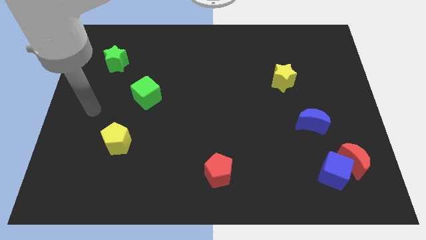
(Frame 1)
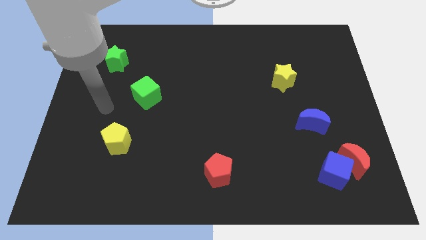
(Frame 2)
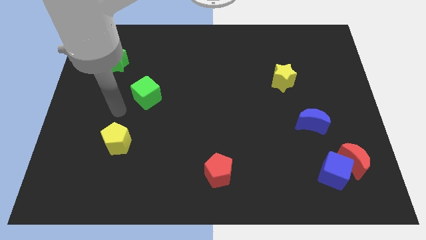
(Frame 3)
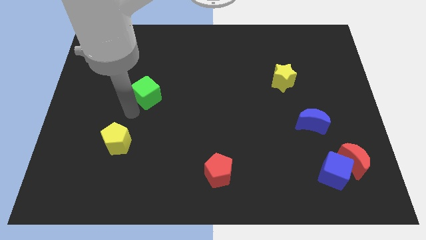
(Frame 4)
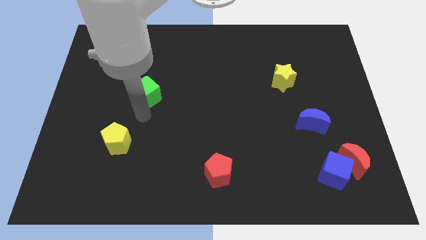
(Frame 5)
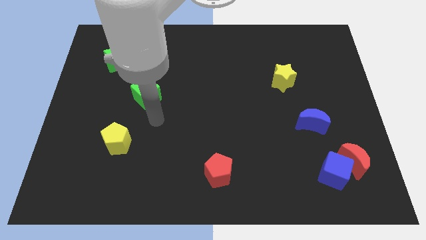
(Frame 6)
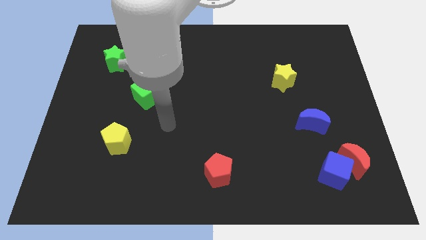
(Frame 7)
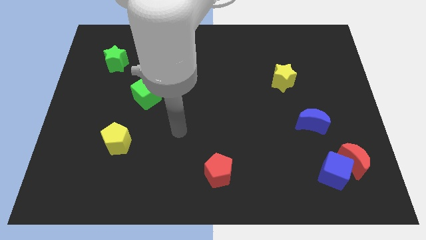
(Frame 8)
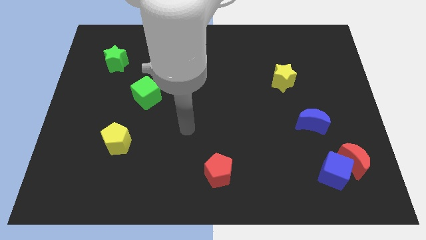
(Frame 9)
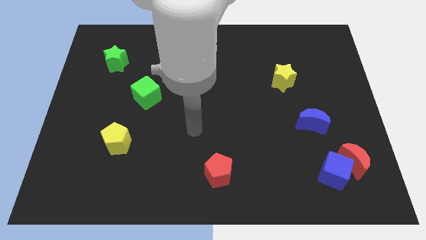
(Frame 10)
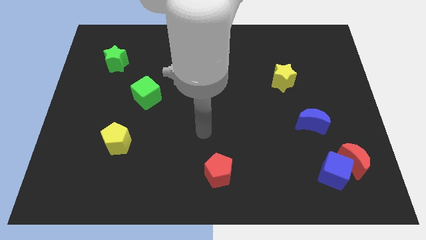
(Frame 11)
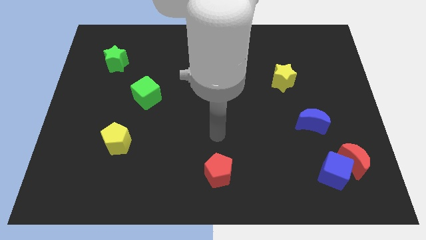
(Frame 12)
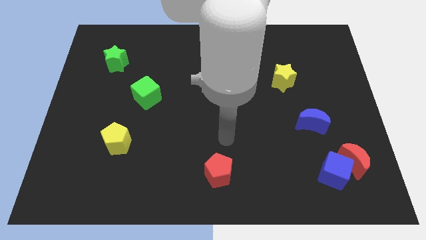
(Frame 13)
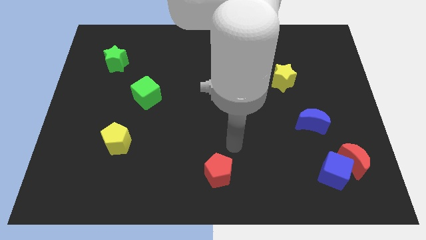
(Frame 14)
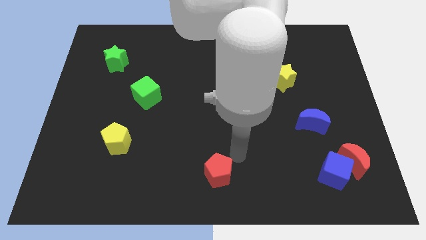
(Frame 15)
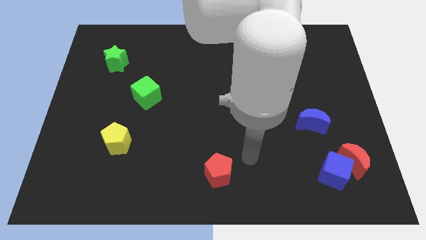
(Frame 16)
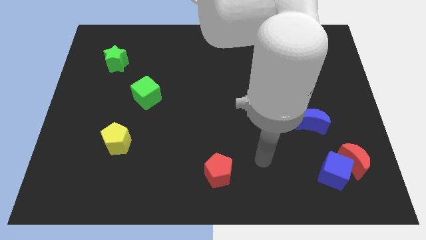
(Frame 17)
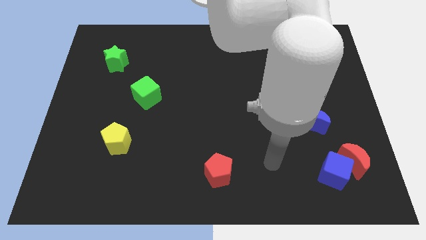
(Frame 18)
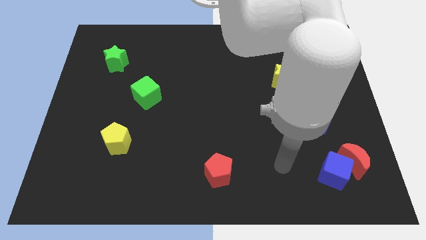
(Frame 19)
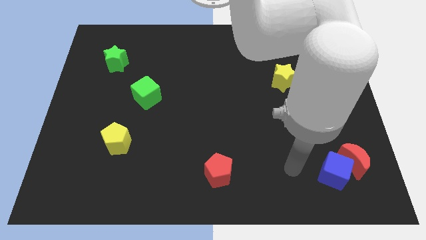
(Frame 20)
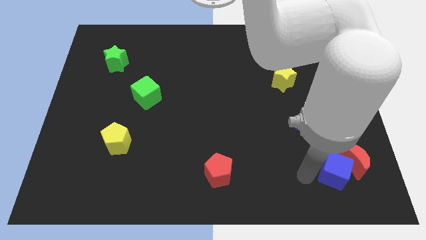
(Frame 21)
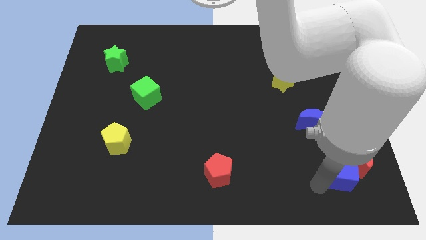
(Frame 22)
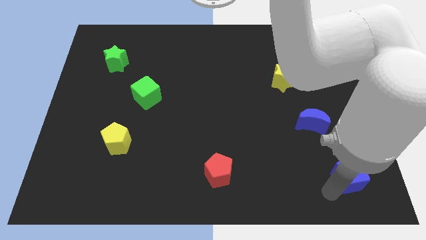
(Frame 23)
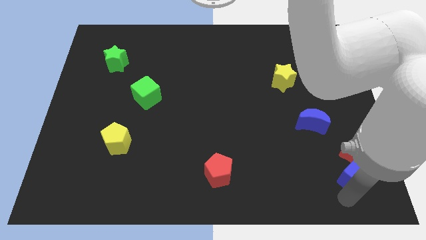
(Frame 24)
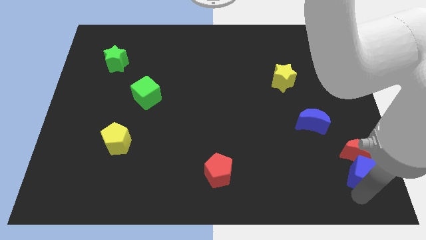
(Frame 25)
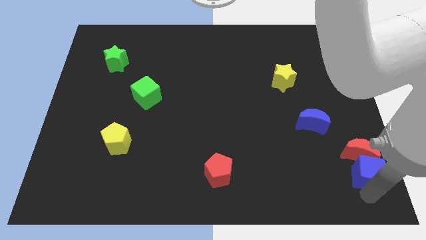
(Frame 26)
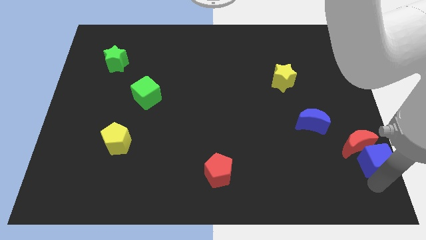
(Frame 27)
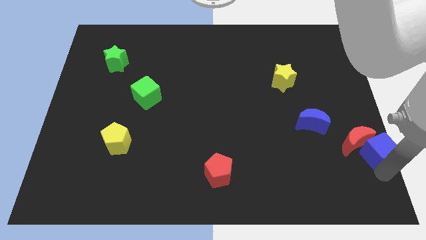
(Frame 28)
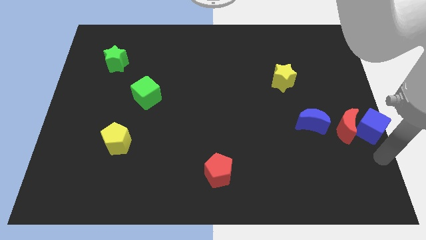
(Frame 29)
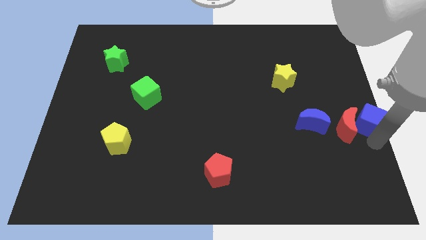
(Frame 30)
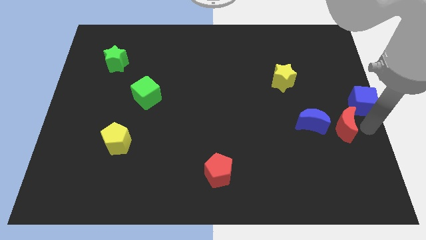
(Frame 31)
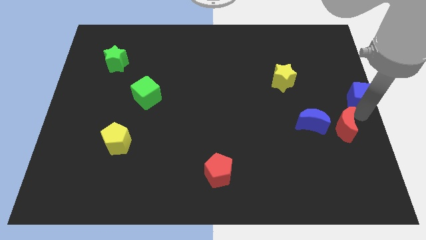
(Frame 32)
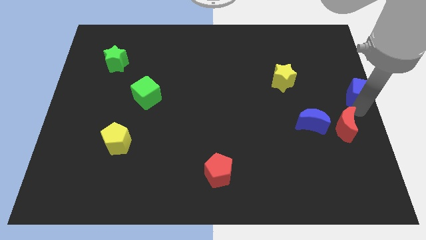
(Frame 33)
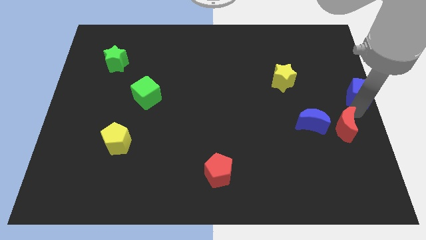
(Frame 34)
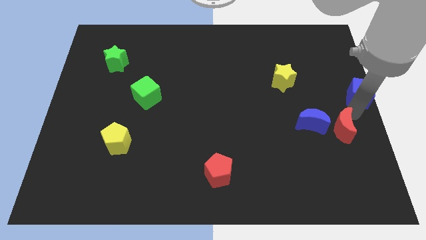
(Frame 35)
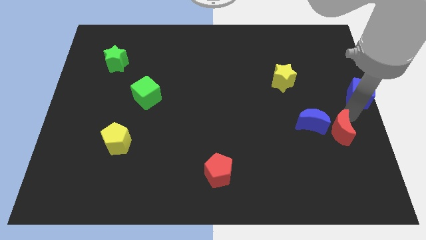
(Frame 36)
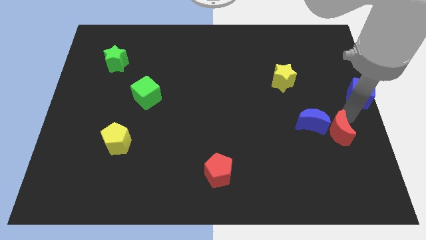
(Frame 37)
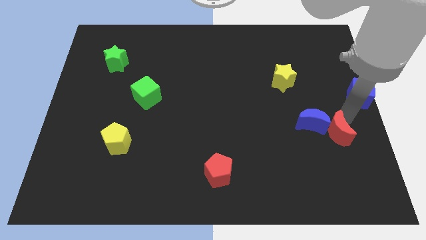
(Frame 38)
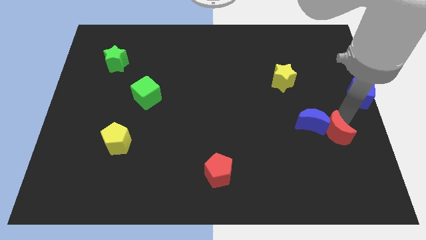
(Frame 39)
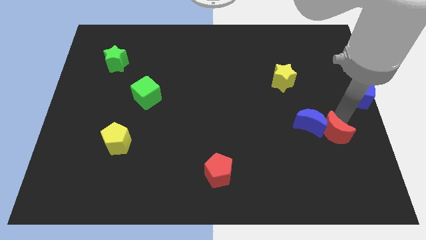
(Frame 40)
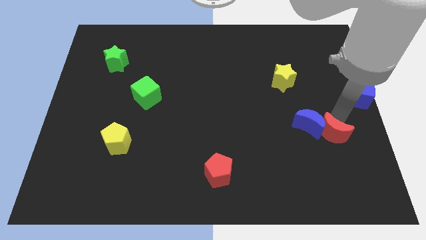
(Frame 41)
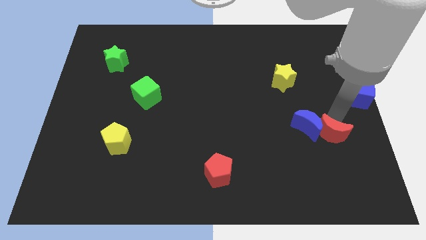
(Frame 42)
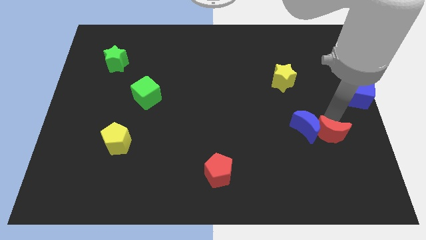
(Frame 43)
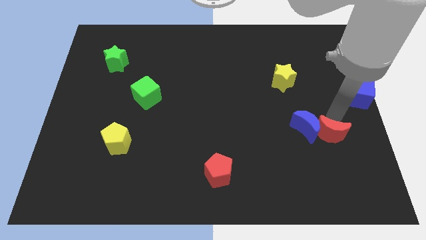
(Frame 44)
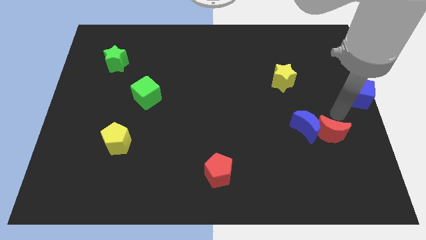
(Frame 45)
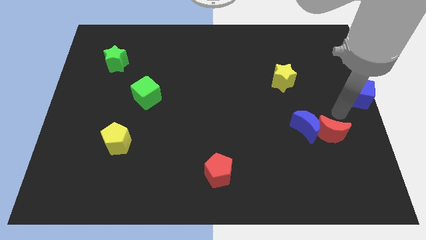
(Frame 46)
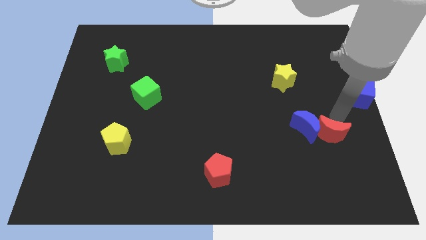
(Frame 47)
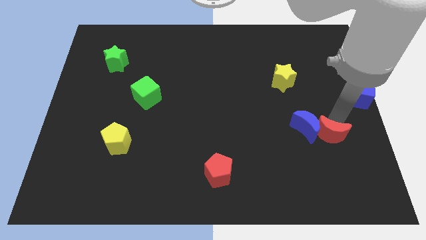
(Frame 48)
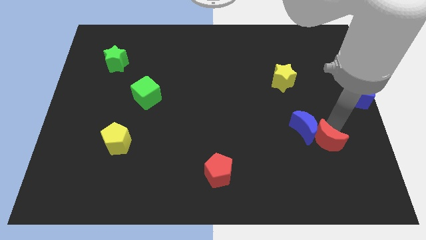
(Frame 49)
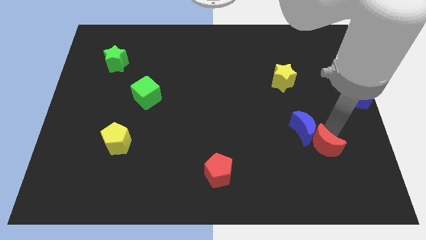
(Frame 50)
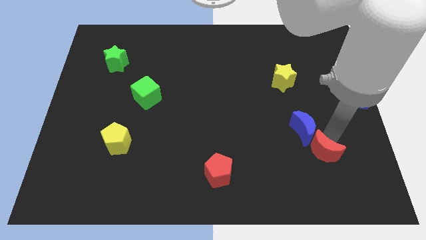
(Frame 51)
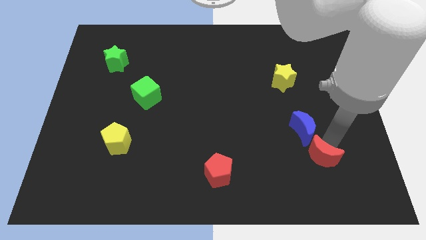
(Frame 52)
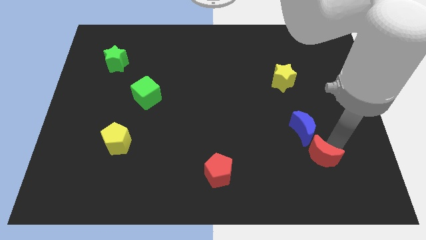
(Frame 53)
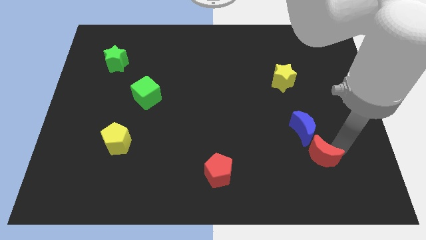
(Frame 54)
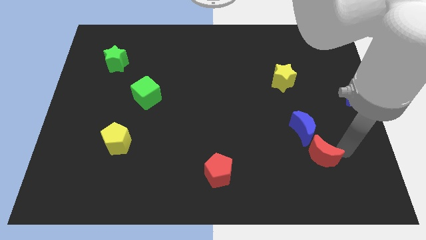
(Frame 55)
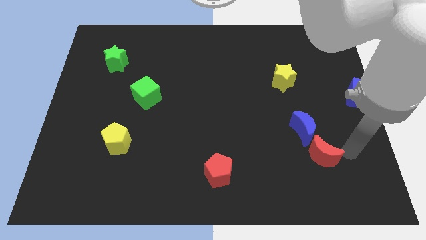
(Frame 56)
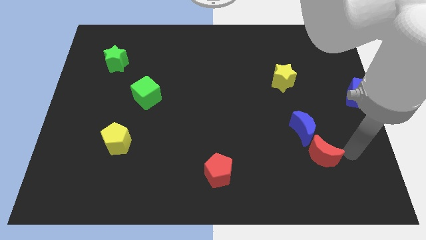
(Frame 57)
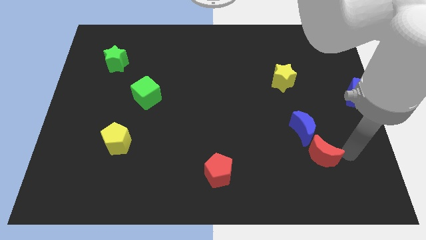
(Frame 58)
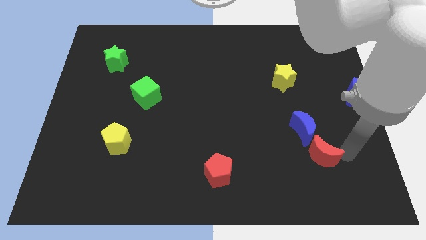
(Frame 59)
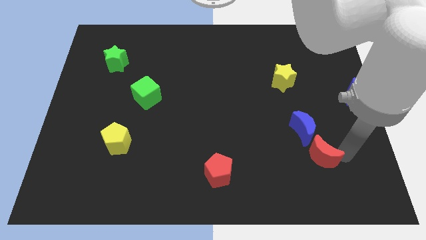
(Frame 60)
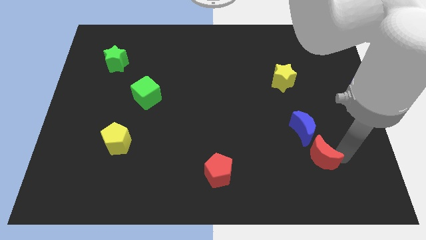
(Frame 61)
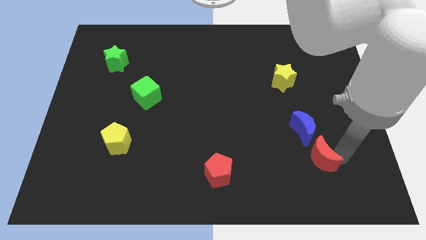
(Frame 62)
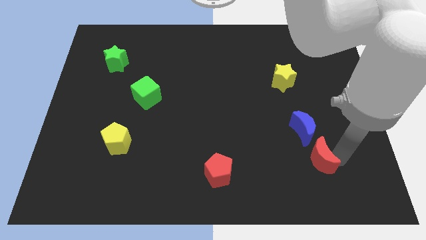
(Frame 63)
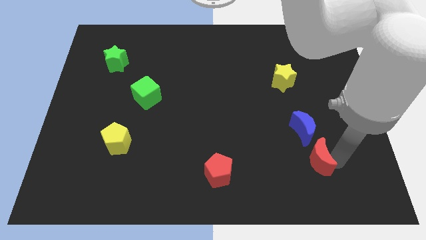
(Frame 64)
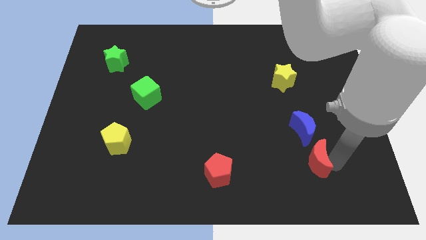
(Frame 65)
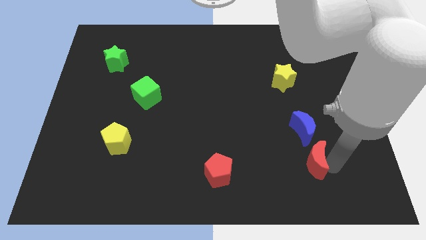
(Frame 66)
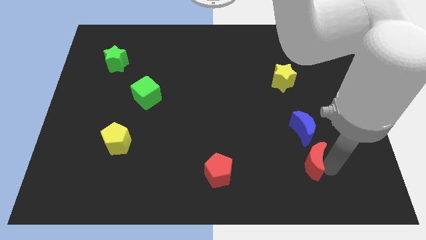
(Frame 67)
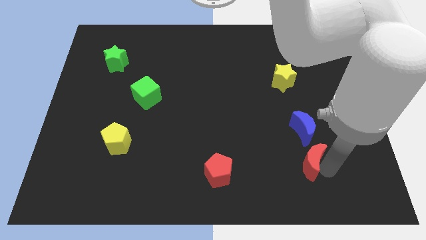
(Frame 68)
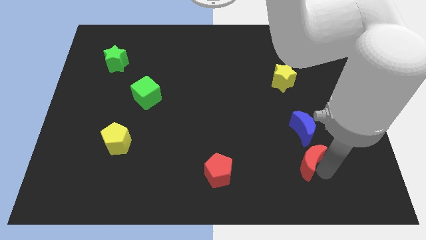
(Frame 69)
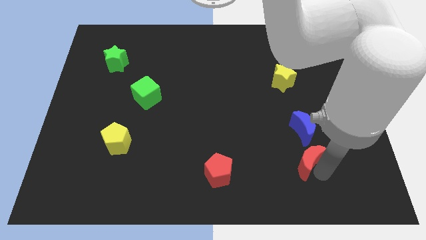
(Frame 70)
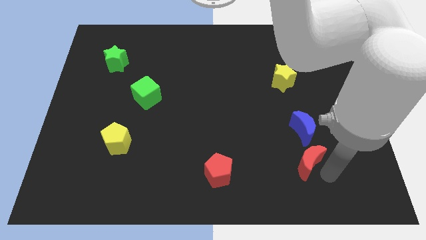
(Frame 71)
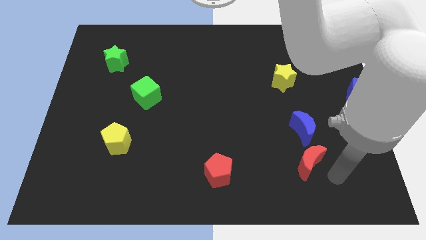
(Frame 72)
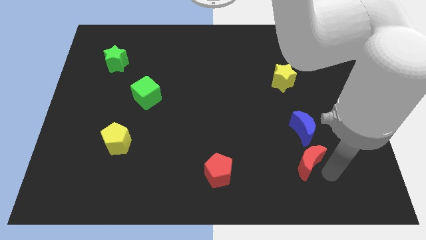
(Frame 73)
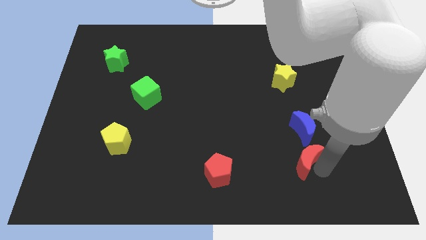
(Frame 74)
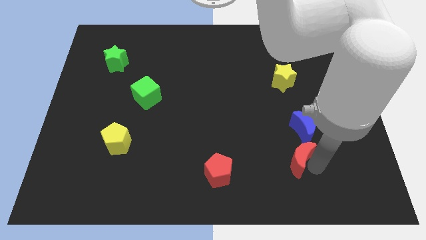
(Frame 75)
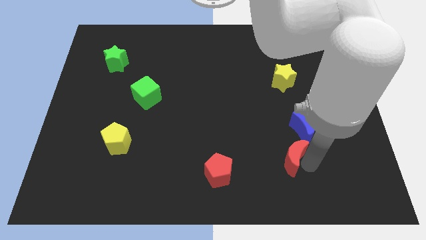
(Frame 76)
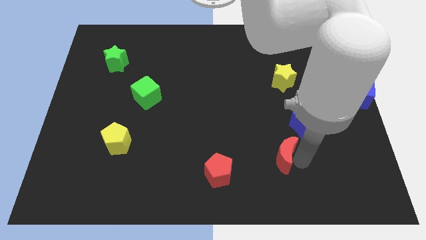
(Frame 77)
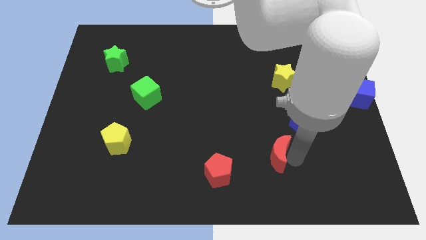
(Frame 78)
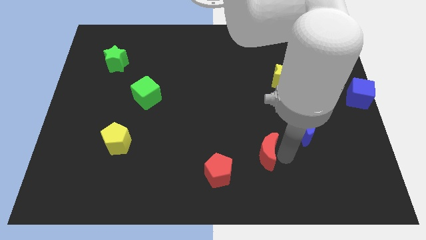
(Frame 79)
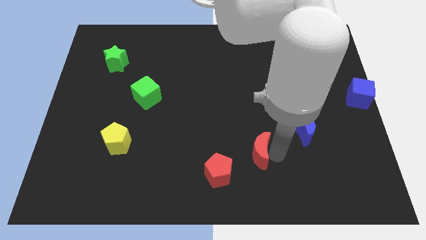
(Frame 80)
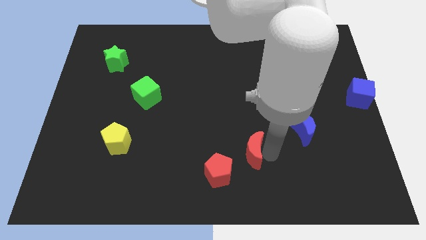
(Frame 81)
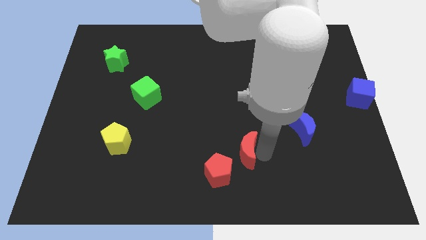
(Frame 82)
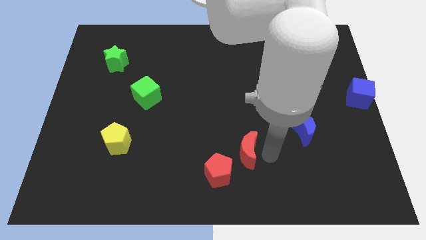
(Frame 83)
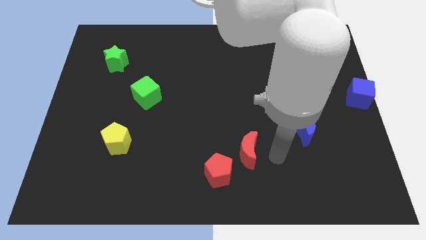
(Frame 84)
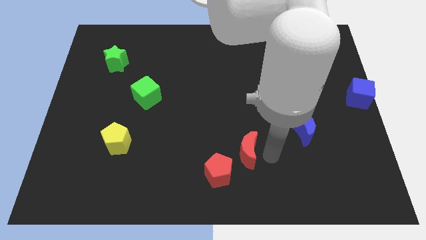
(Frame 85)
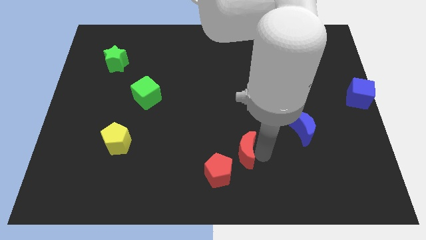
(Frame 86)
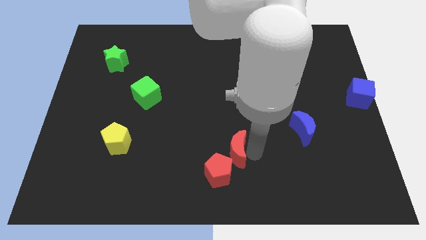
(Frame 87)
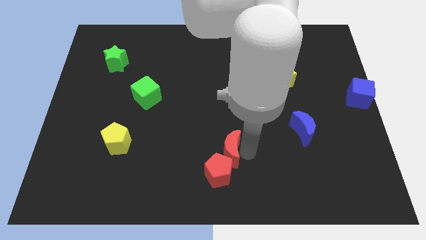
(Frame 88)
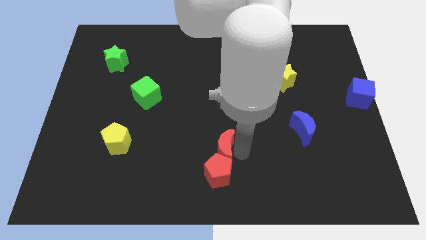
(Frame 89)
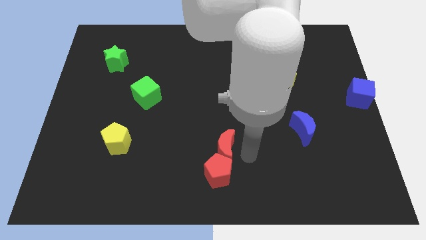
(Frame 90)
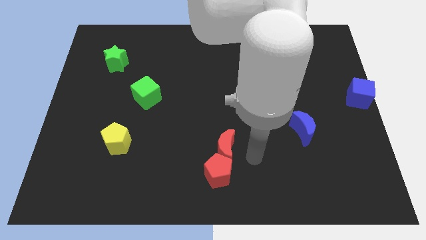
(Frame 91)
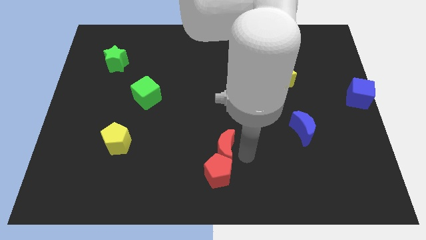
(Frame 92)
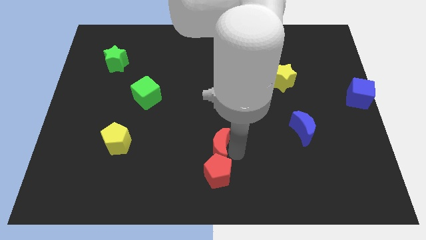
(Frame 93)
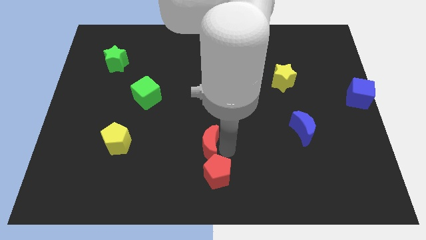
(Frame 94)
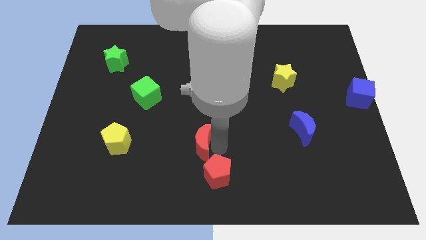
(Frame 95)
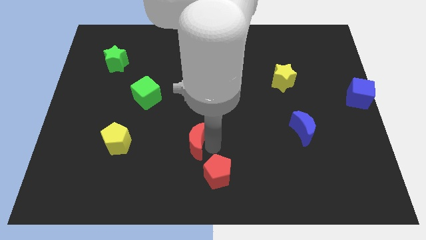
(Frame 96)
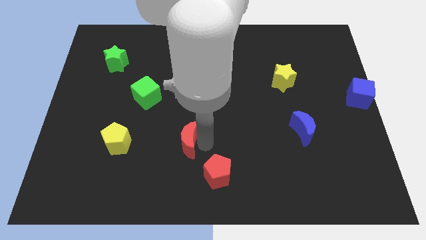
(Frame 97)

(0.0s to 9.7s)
move the red moon just right of the yellow pentagon
